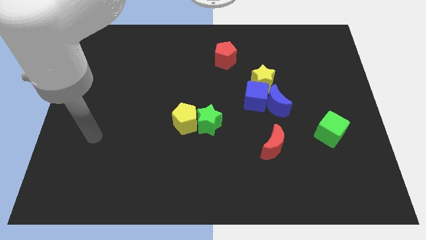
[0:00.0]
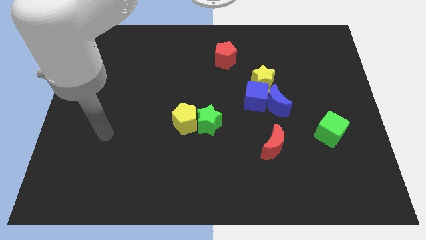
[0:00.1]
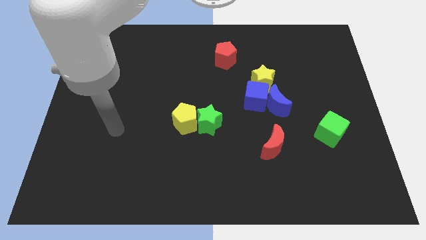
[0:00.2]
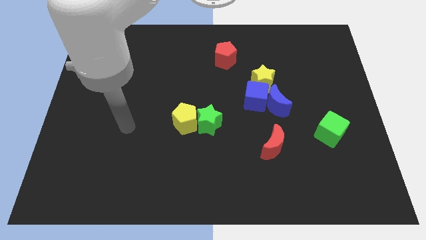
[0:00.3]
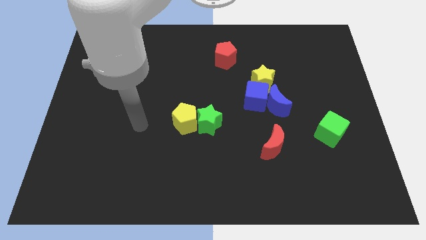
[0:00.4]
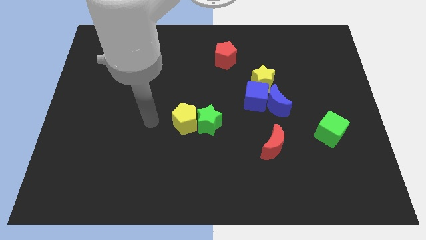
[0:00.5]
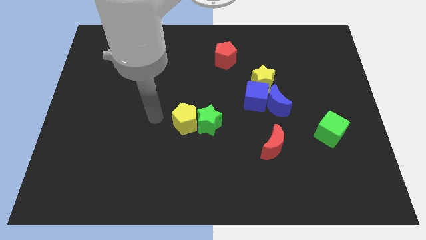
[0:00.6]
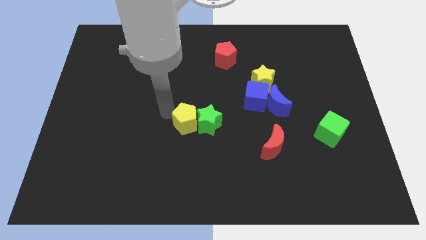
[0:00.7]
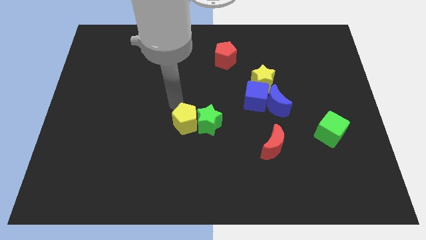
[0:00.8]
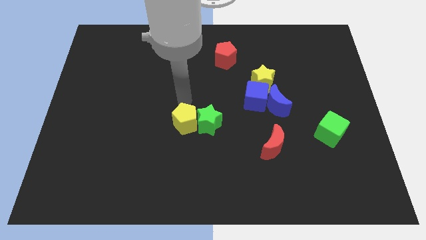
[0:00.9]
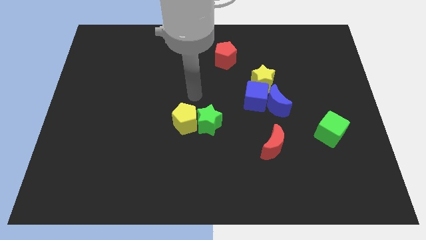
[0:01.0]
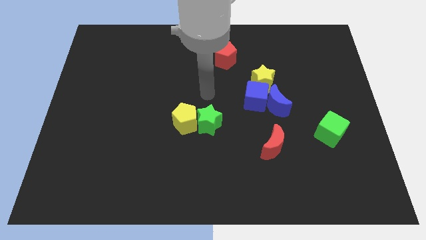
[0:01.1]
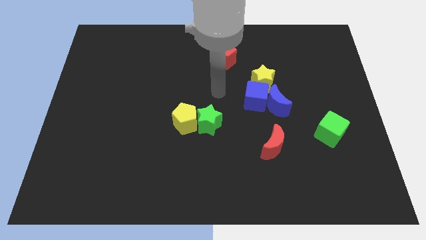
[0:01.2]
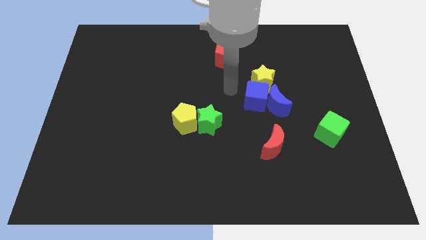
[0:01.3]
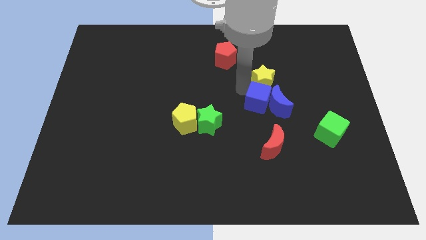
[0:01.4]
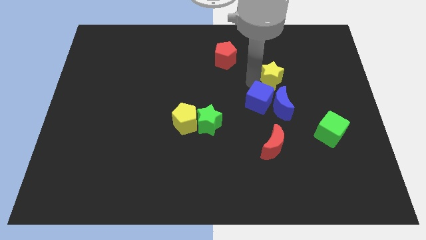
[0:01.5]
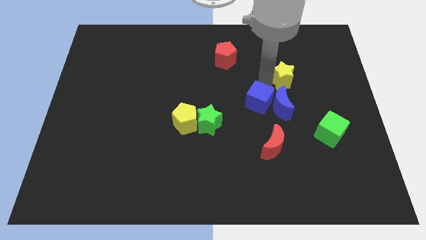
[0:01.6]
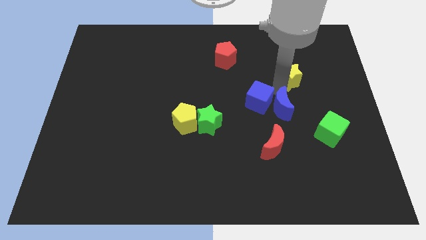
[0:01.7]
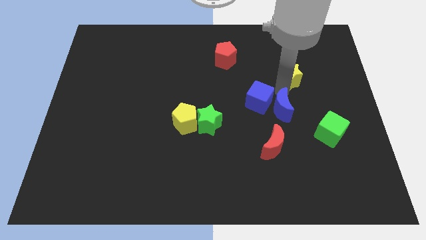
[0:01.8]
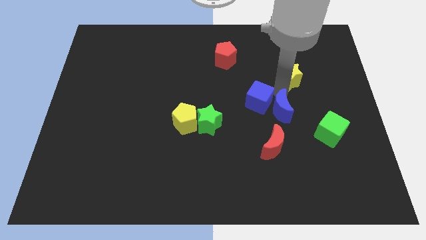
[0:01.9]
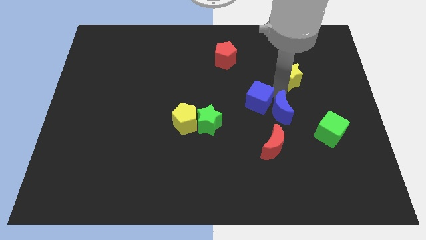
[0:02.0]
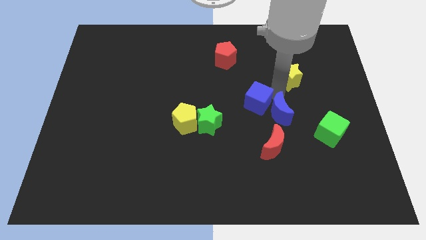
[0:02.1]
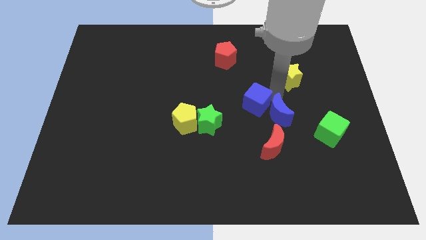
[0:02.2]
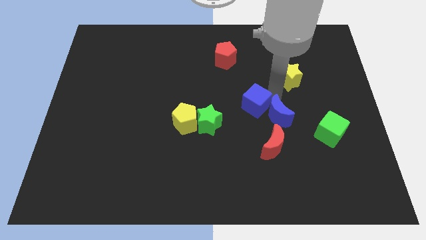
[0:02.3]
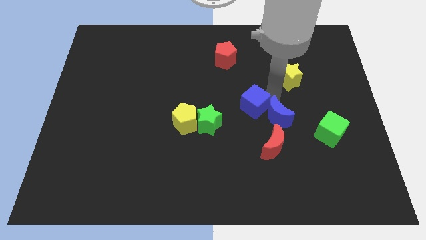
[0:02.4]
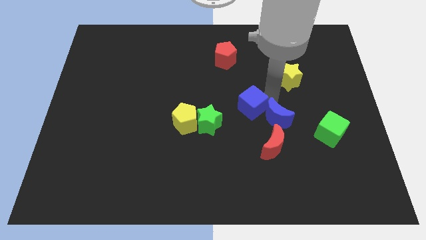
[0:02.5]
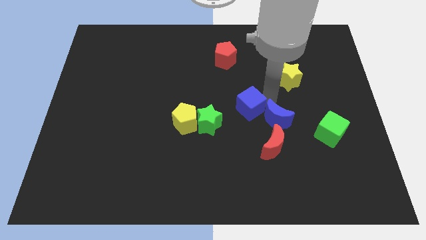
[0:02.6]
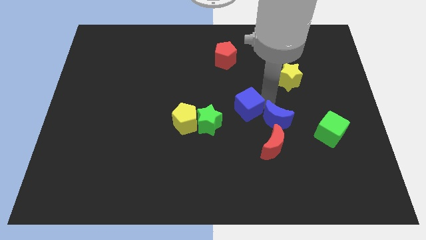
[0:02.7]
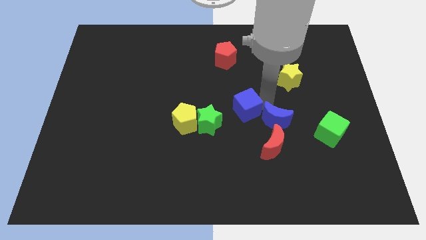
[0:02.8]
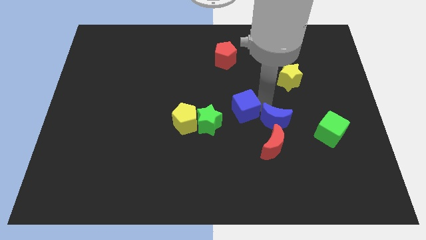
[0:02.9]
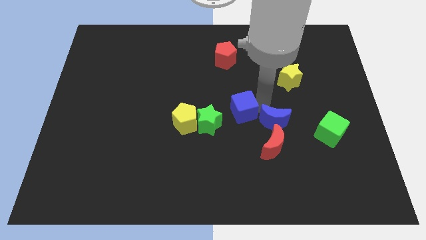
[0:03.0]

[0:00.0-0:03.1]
separate the blue cube from the blue moon and yellow star

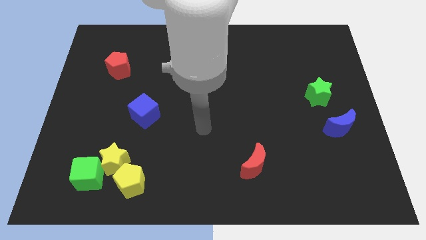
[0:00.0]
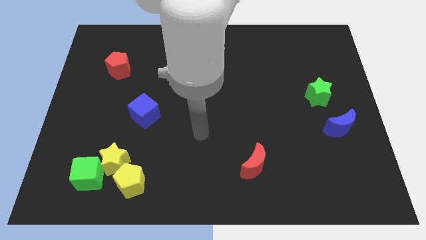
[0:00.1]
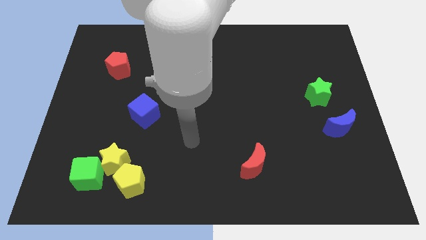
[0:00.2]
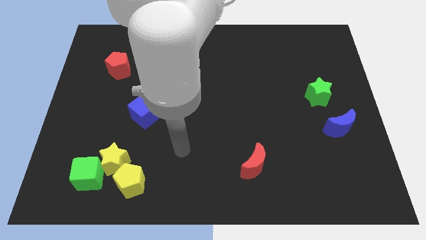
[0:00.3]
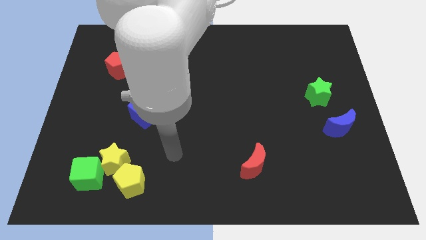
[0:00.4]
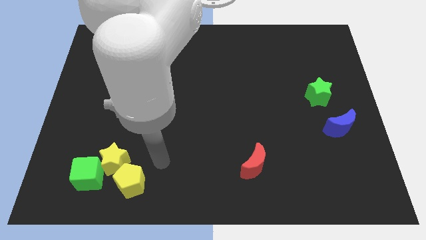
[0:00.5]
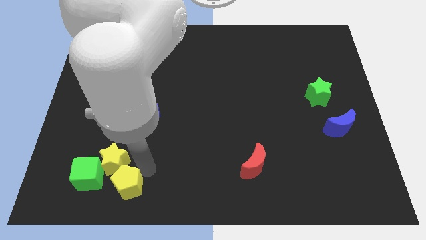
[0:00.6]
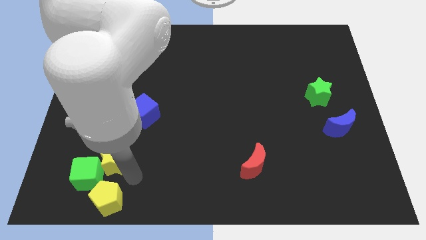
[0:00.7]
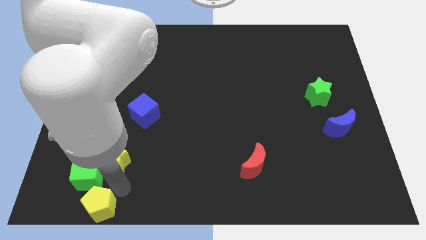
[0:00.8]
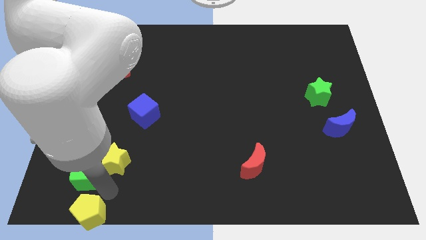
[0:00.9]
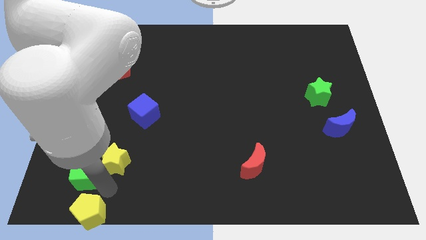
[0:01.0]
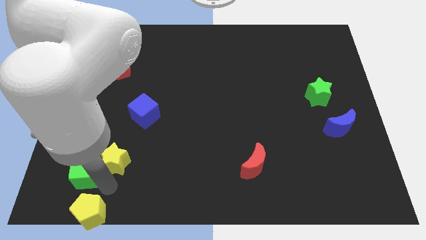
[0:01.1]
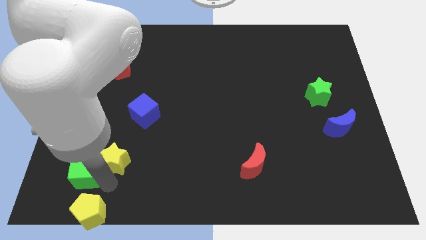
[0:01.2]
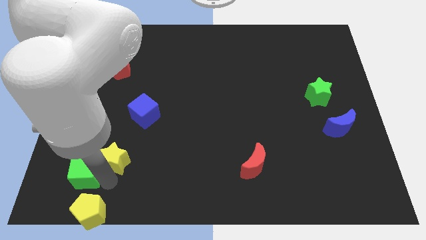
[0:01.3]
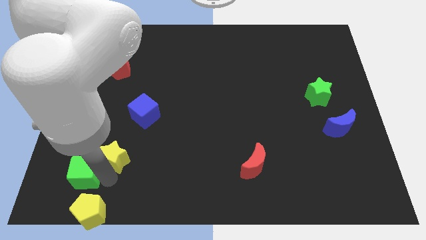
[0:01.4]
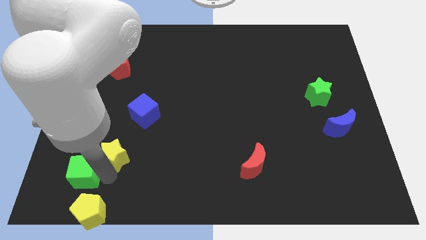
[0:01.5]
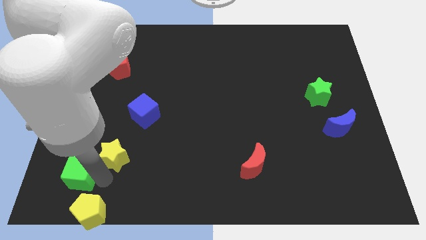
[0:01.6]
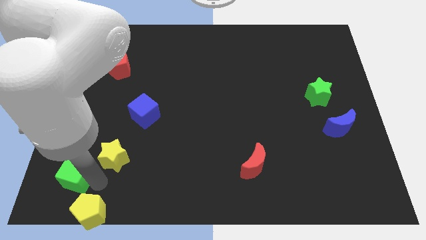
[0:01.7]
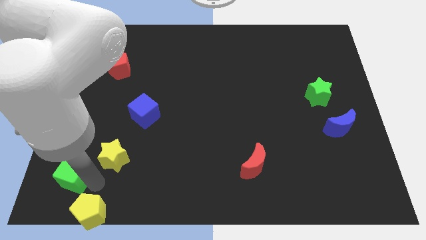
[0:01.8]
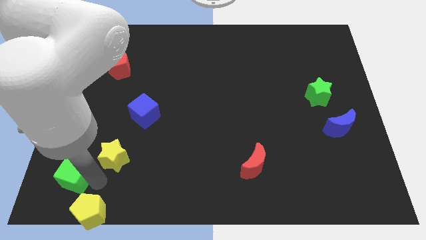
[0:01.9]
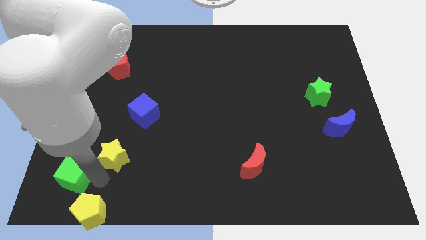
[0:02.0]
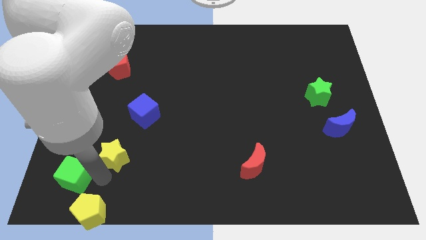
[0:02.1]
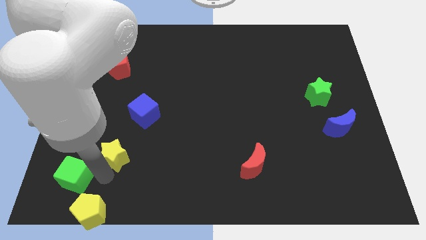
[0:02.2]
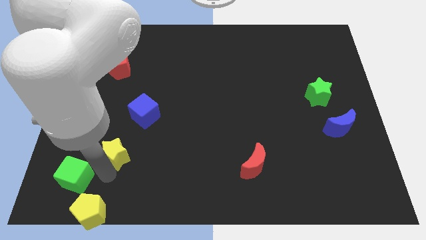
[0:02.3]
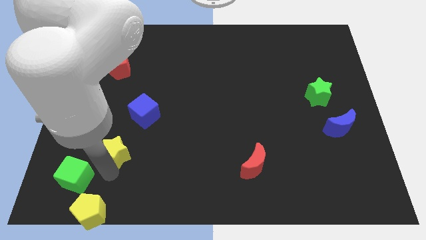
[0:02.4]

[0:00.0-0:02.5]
pull the yellow star apart from the green cube and yellow pentagon

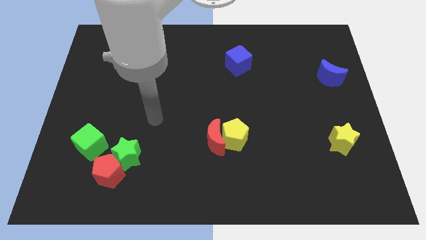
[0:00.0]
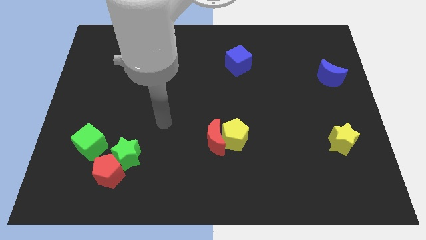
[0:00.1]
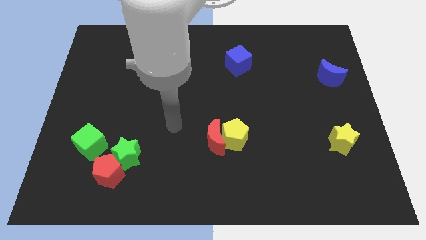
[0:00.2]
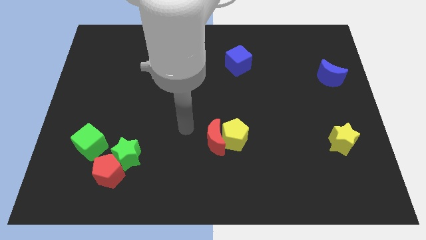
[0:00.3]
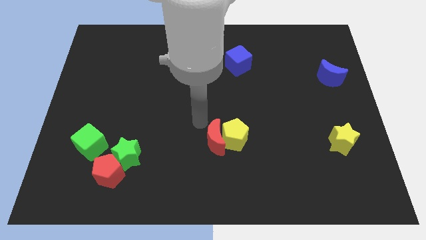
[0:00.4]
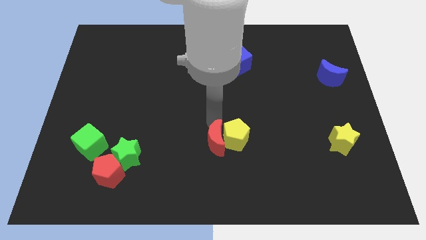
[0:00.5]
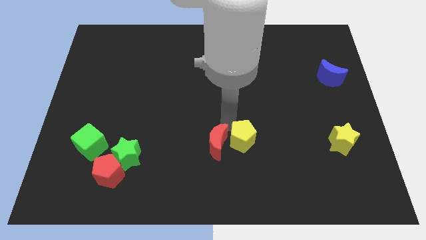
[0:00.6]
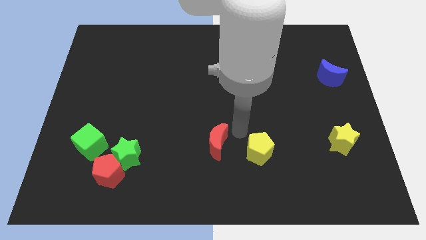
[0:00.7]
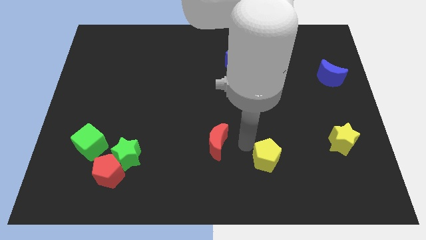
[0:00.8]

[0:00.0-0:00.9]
separate the red moon from the yellow pentagon

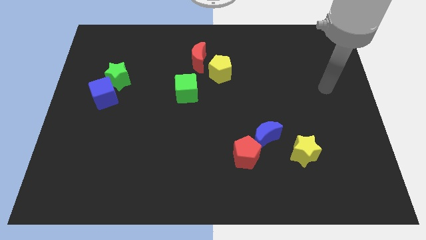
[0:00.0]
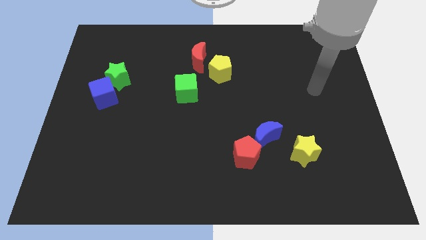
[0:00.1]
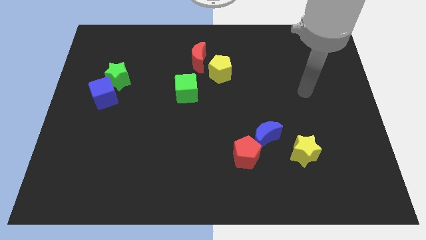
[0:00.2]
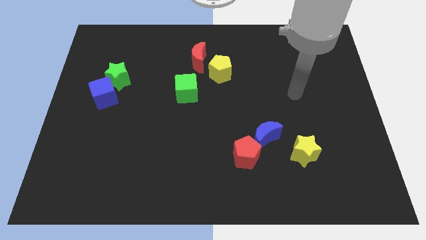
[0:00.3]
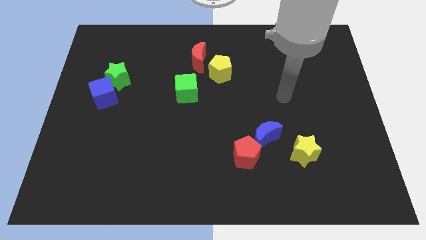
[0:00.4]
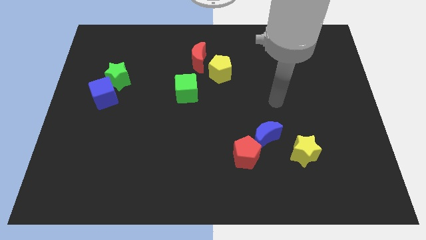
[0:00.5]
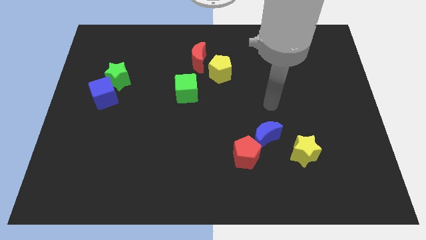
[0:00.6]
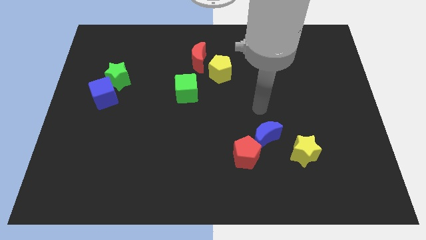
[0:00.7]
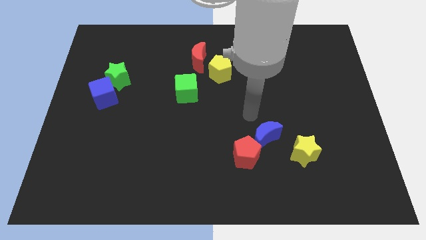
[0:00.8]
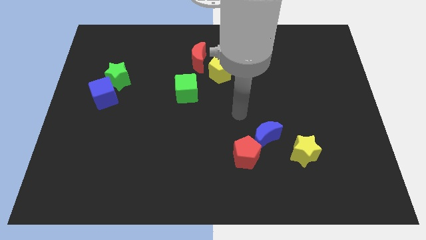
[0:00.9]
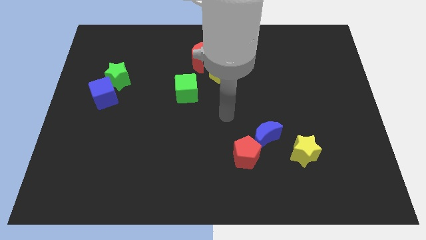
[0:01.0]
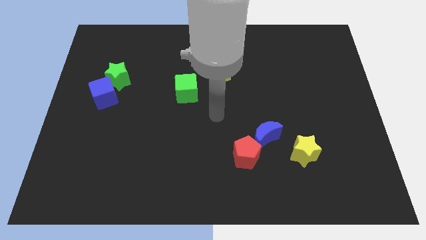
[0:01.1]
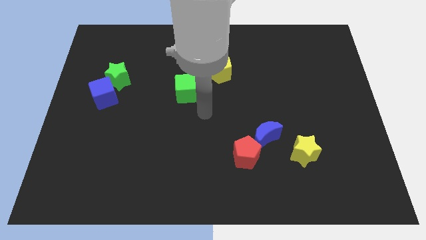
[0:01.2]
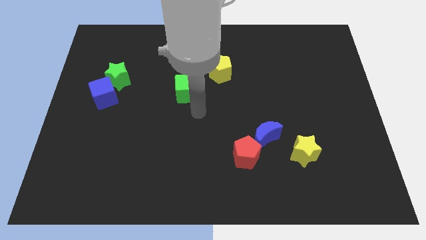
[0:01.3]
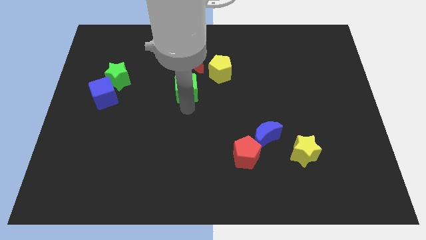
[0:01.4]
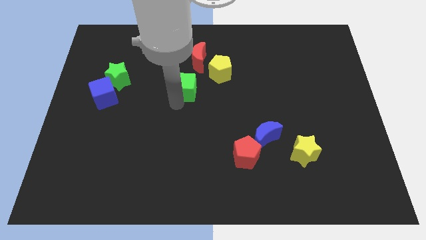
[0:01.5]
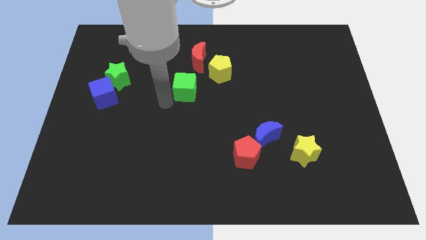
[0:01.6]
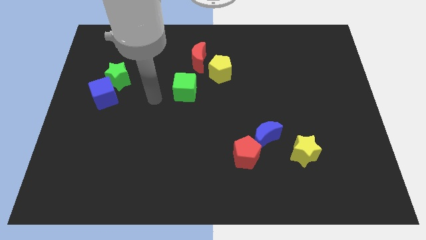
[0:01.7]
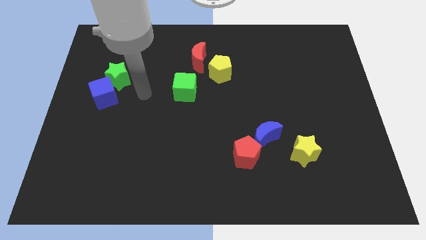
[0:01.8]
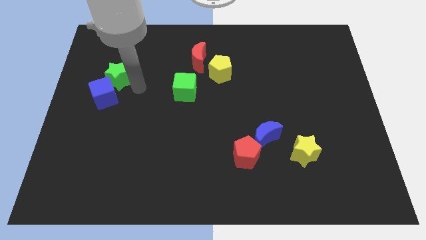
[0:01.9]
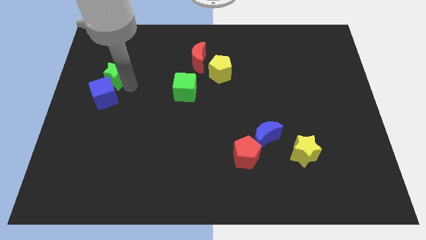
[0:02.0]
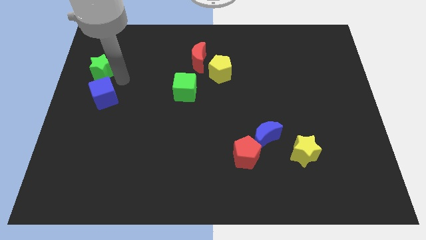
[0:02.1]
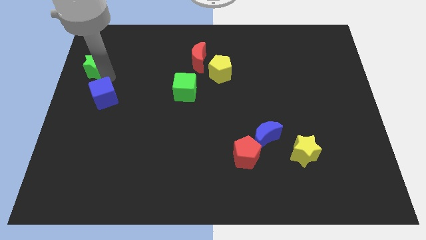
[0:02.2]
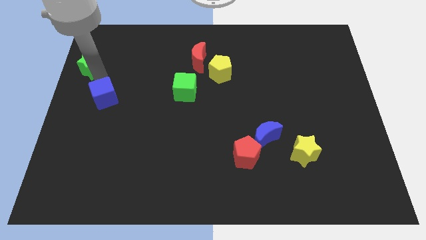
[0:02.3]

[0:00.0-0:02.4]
pull the blue cube apart from the green star

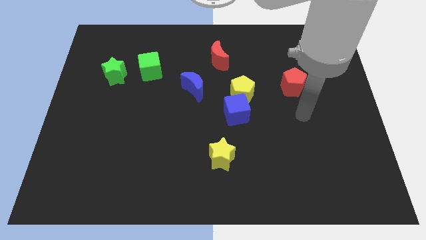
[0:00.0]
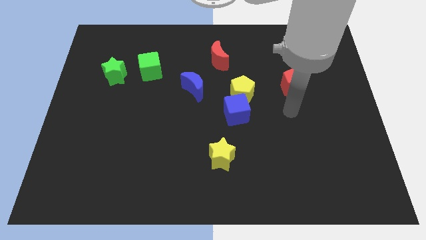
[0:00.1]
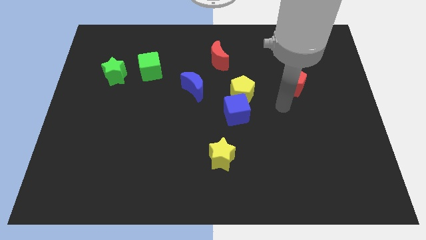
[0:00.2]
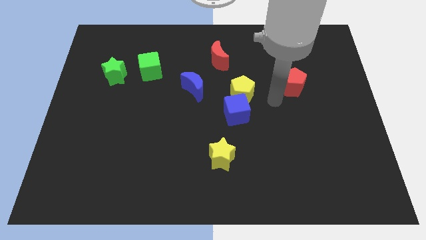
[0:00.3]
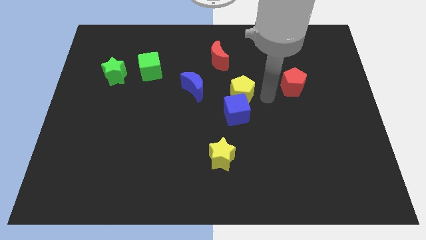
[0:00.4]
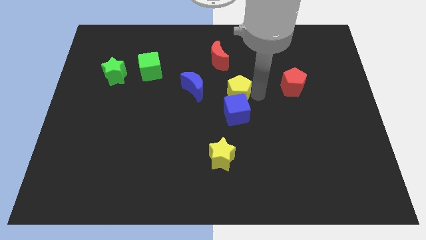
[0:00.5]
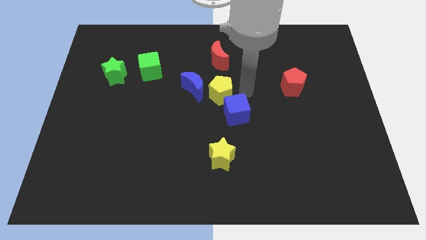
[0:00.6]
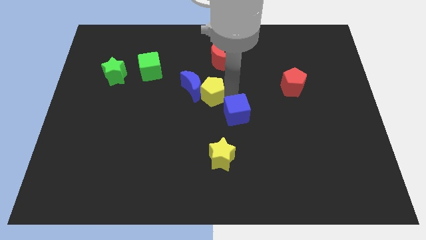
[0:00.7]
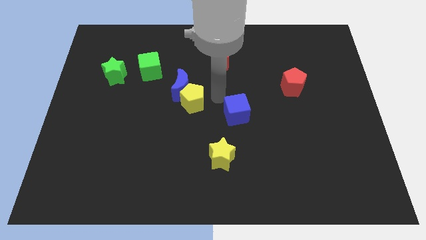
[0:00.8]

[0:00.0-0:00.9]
move the blue cube away from the yellow pentagon
